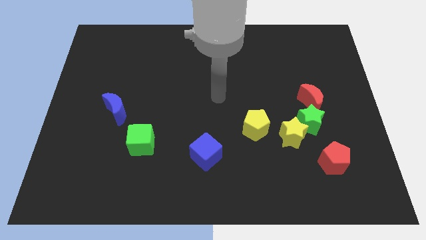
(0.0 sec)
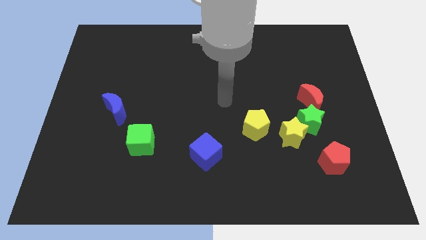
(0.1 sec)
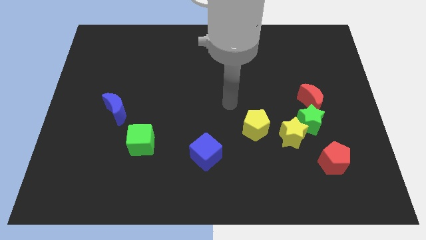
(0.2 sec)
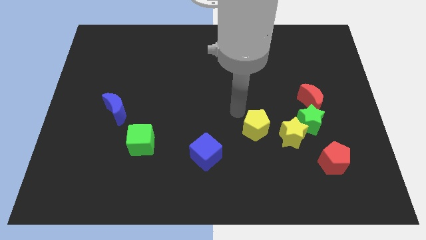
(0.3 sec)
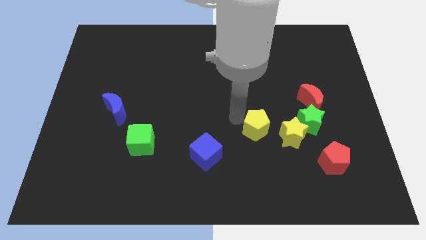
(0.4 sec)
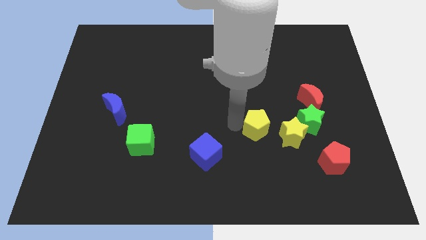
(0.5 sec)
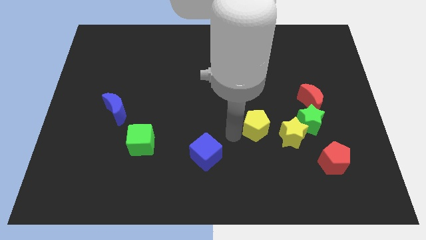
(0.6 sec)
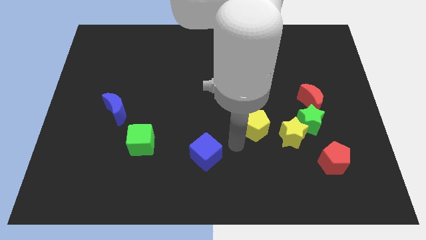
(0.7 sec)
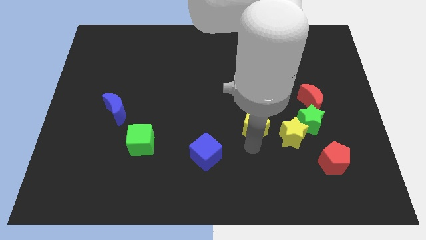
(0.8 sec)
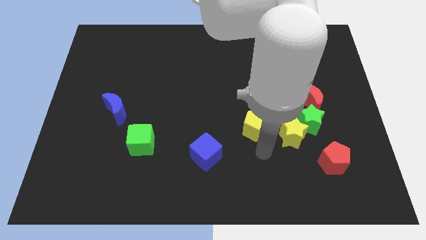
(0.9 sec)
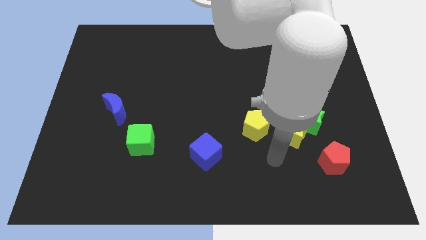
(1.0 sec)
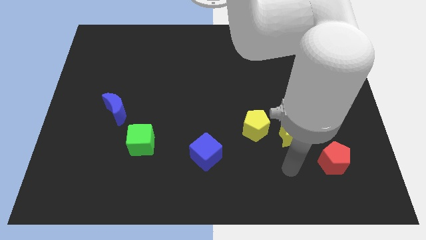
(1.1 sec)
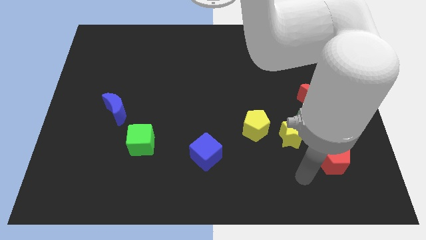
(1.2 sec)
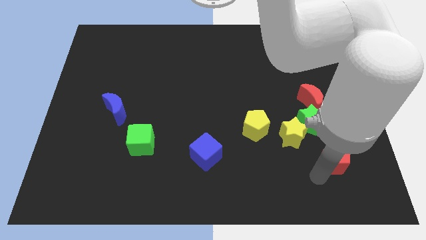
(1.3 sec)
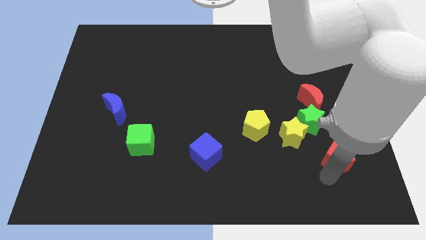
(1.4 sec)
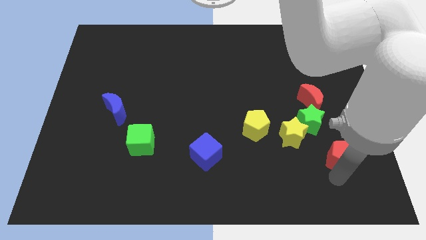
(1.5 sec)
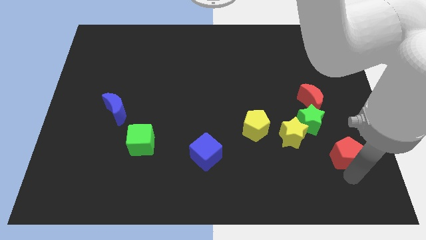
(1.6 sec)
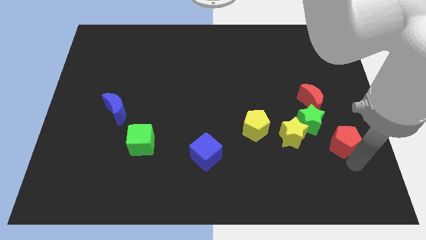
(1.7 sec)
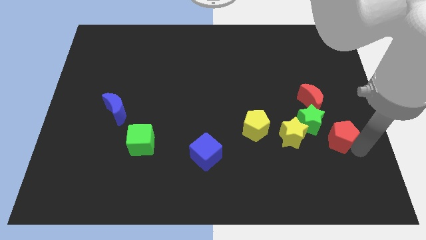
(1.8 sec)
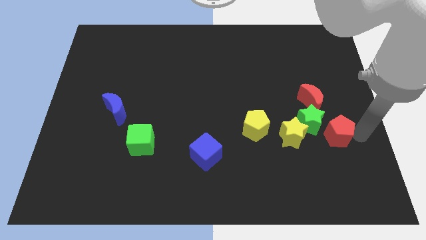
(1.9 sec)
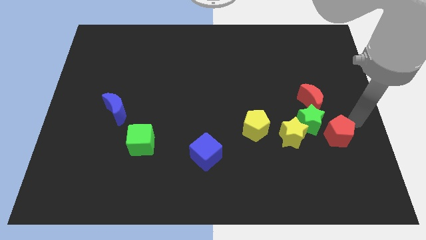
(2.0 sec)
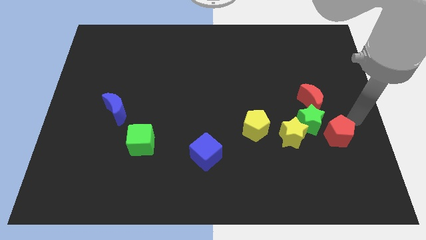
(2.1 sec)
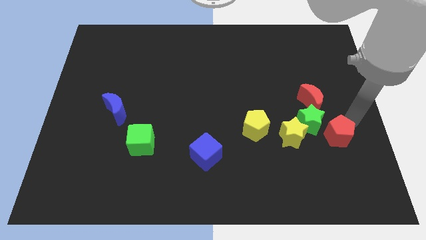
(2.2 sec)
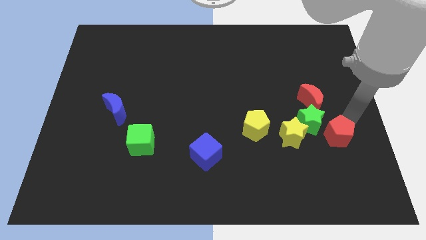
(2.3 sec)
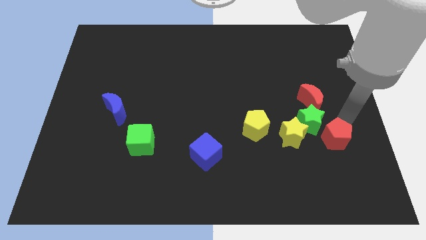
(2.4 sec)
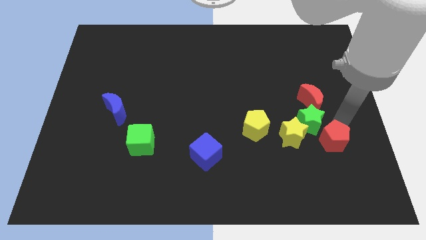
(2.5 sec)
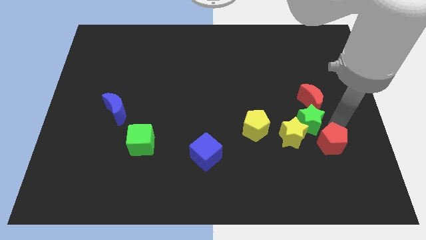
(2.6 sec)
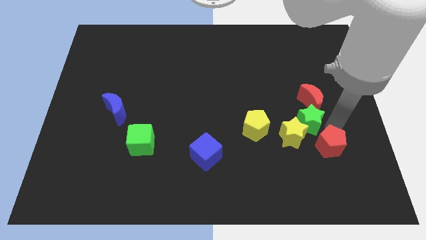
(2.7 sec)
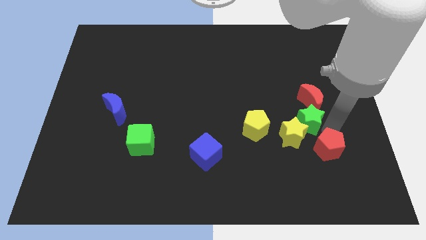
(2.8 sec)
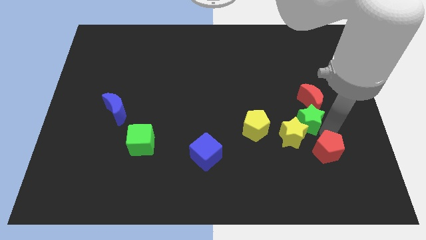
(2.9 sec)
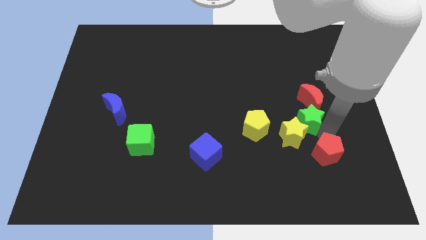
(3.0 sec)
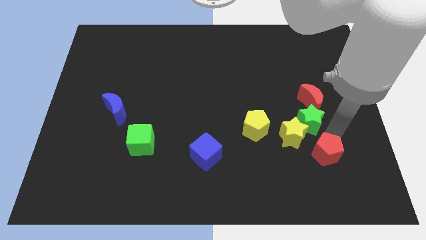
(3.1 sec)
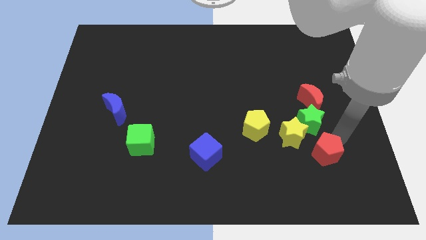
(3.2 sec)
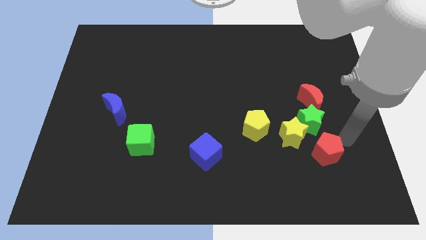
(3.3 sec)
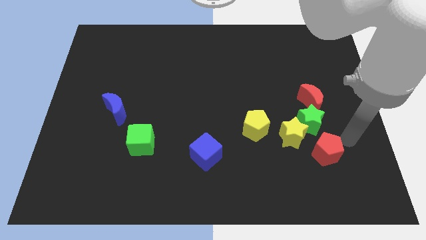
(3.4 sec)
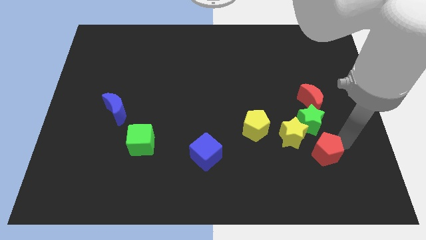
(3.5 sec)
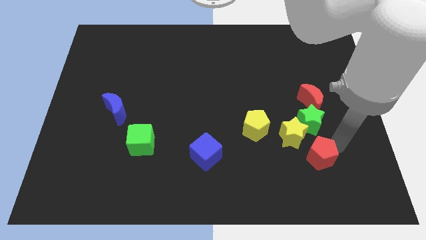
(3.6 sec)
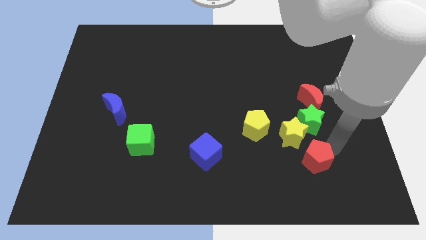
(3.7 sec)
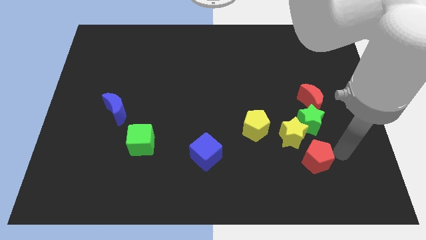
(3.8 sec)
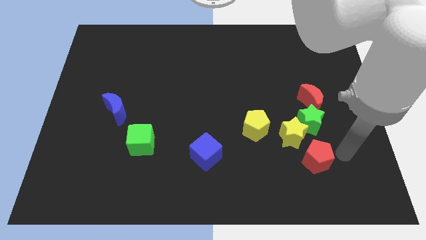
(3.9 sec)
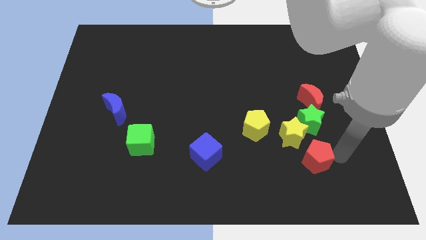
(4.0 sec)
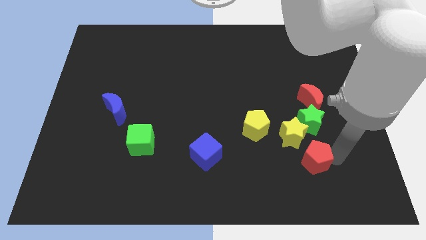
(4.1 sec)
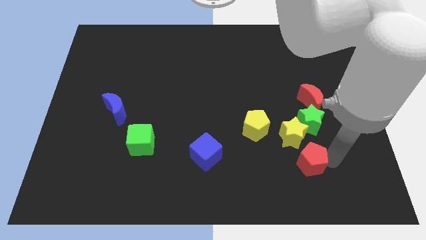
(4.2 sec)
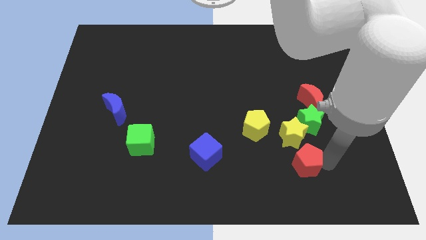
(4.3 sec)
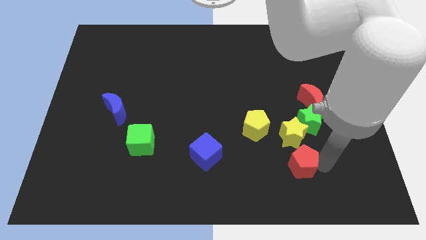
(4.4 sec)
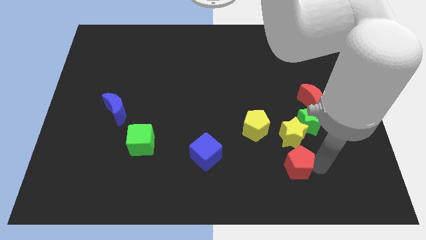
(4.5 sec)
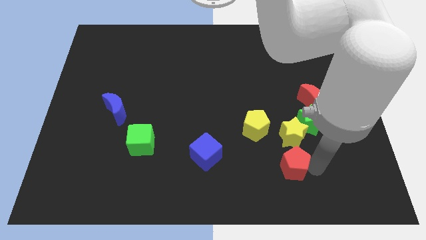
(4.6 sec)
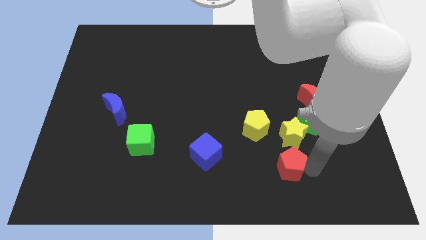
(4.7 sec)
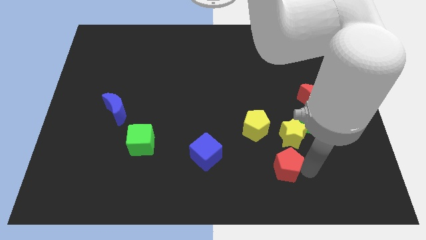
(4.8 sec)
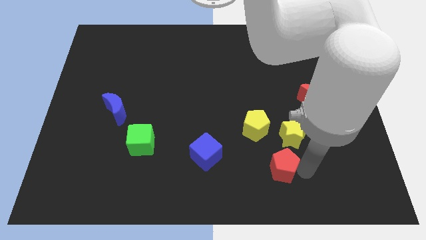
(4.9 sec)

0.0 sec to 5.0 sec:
slide the red pentagon to the bottom of the yellow pentagon

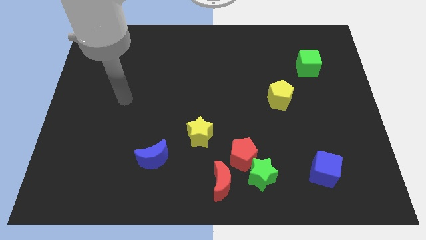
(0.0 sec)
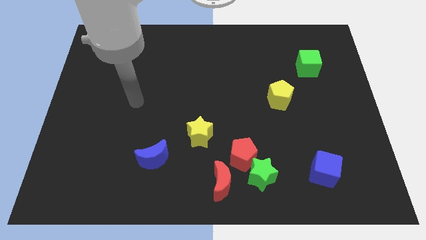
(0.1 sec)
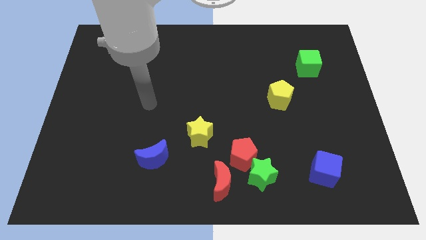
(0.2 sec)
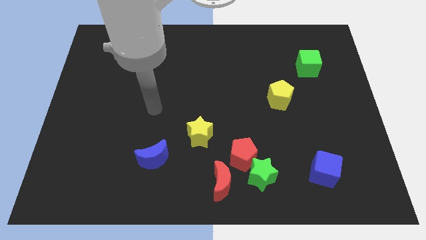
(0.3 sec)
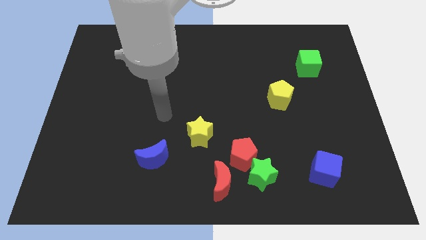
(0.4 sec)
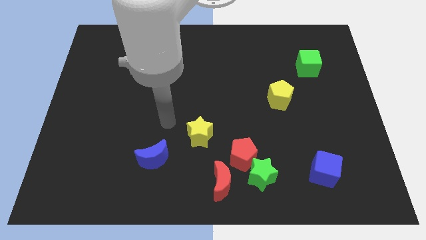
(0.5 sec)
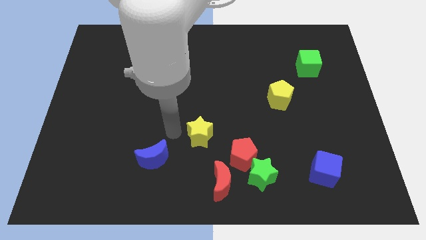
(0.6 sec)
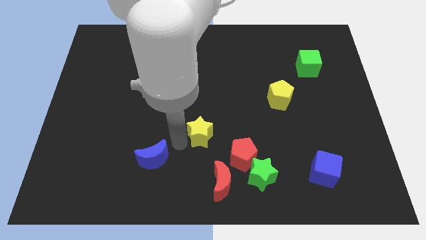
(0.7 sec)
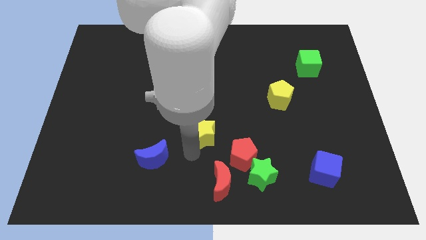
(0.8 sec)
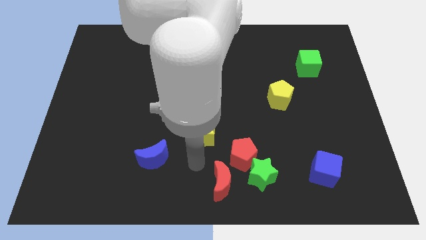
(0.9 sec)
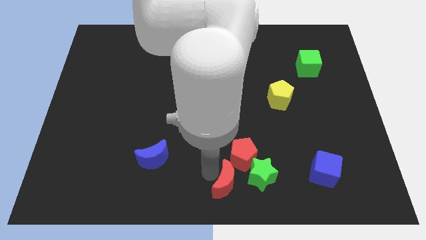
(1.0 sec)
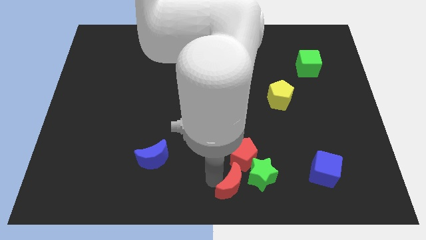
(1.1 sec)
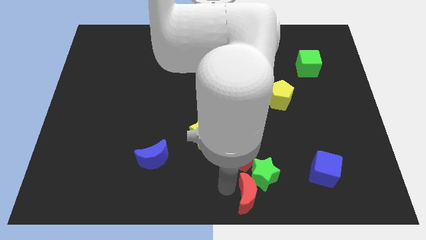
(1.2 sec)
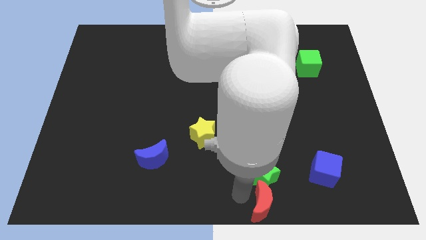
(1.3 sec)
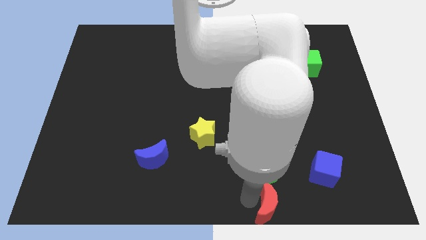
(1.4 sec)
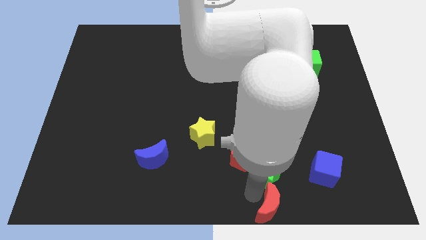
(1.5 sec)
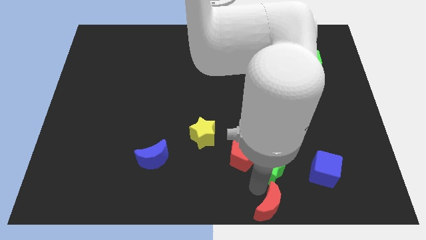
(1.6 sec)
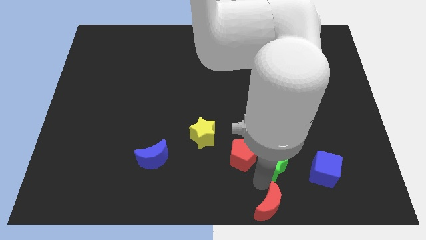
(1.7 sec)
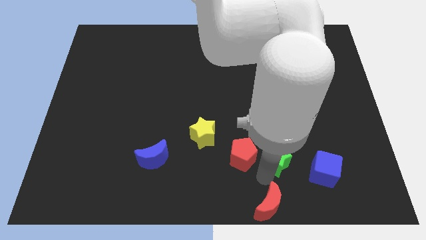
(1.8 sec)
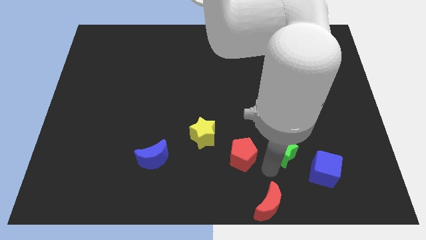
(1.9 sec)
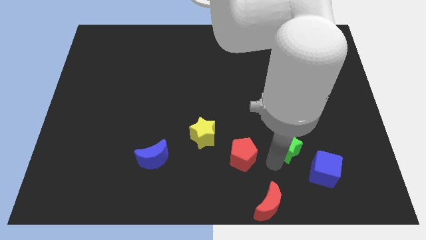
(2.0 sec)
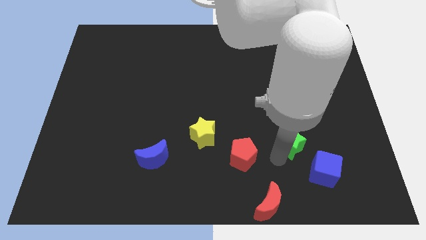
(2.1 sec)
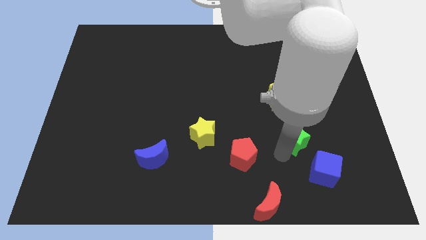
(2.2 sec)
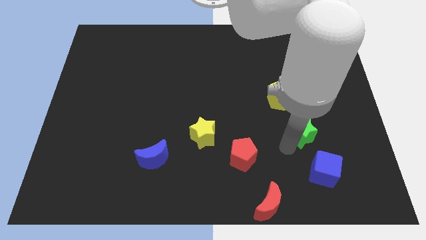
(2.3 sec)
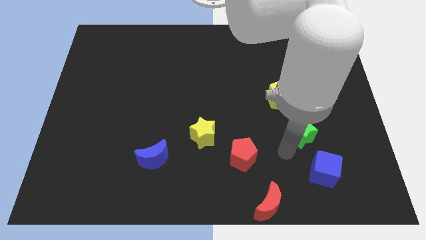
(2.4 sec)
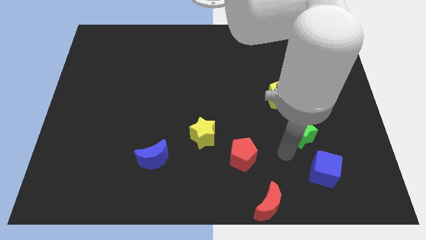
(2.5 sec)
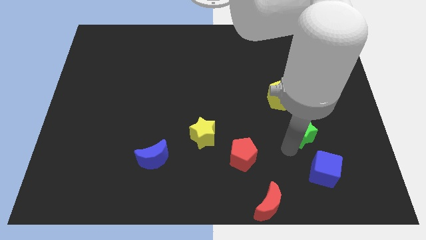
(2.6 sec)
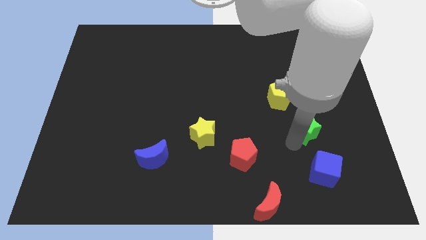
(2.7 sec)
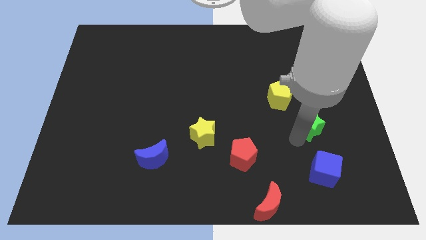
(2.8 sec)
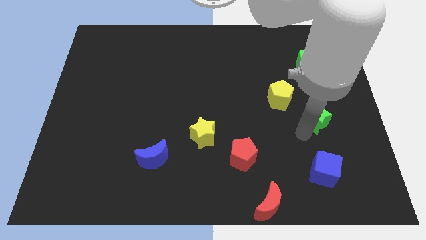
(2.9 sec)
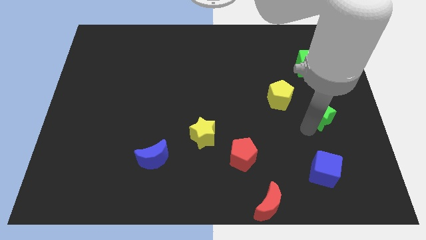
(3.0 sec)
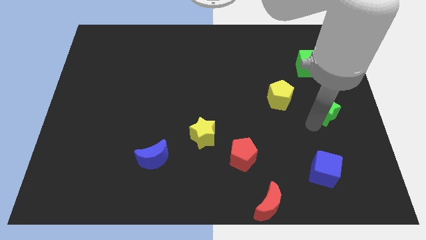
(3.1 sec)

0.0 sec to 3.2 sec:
put the green star to the right side of the yellow pentagon
